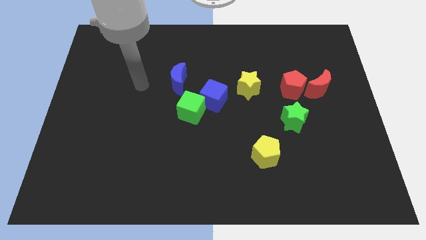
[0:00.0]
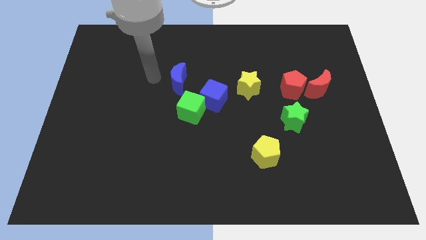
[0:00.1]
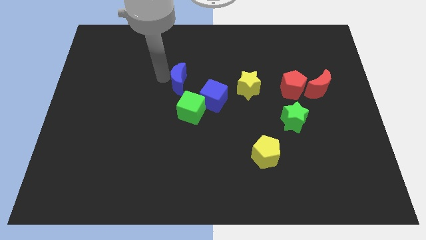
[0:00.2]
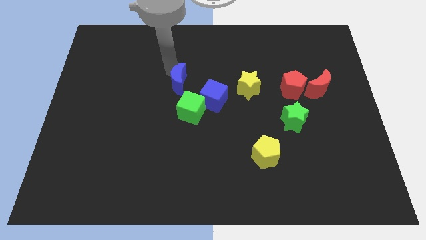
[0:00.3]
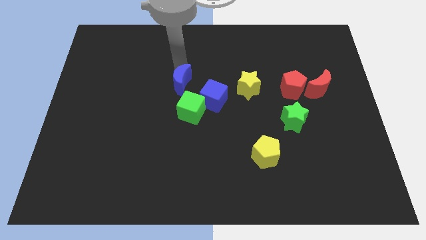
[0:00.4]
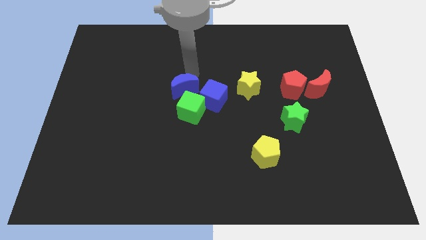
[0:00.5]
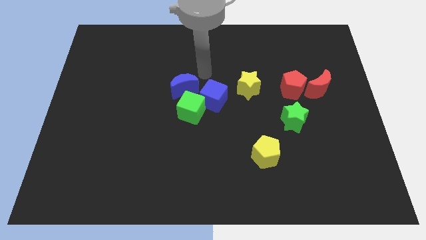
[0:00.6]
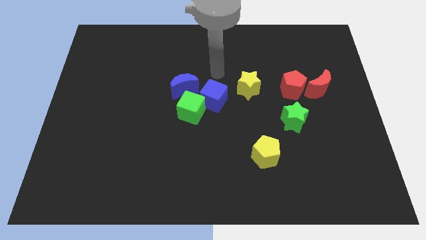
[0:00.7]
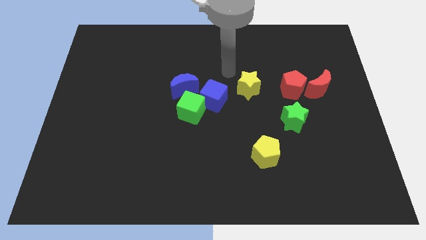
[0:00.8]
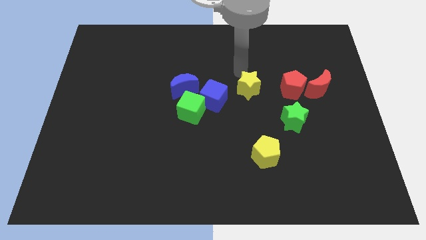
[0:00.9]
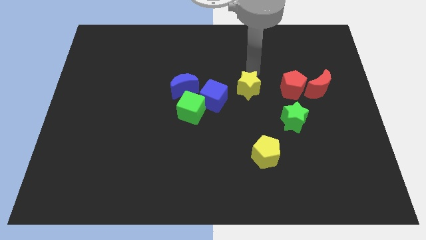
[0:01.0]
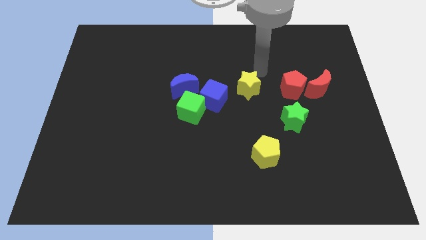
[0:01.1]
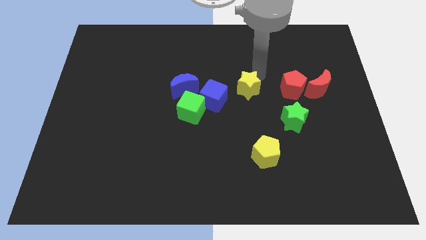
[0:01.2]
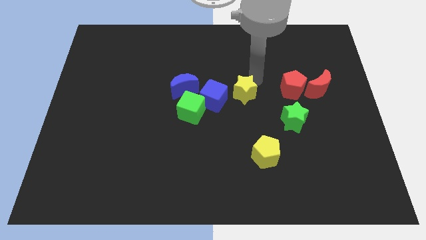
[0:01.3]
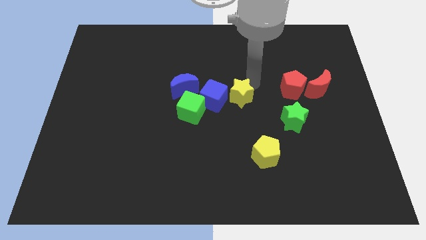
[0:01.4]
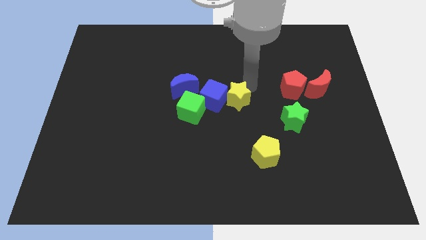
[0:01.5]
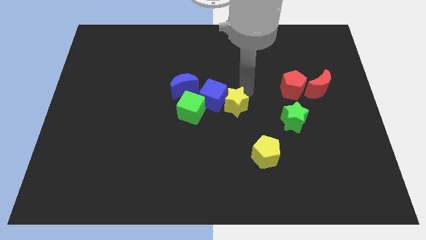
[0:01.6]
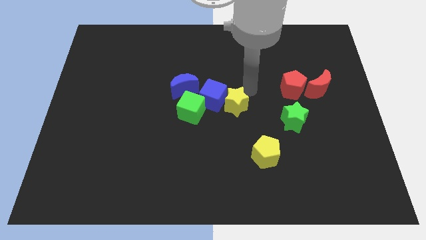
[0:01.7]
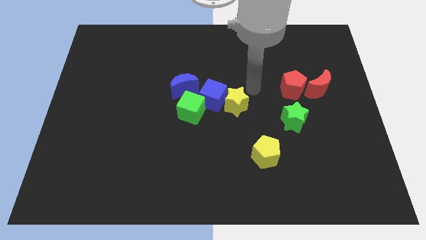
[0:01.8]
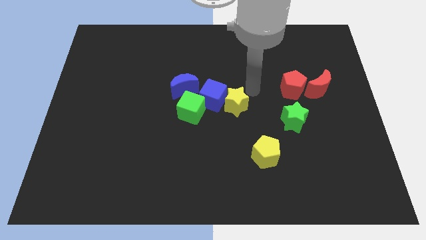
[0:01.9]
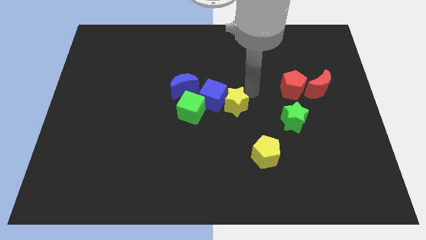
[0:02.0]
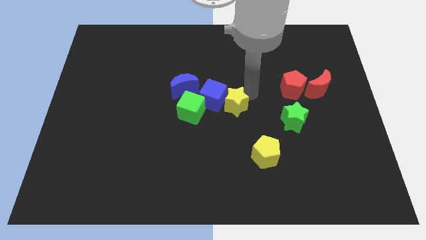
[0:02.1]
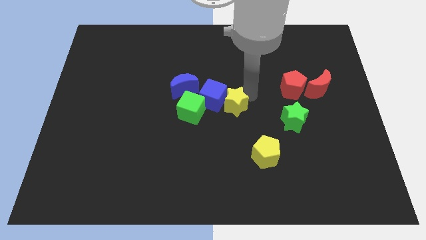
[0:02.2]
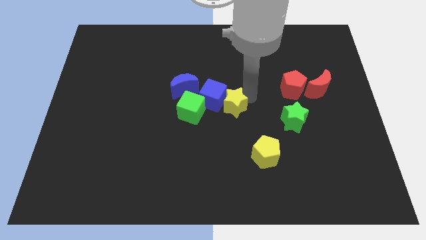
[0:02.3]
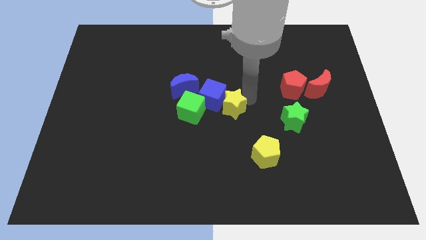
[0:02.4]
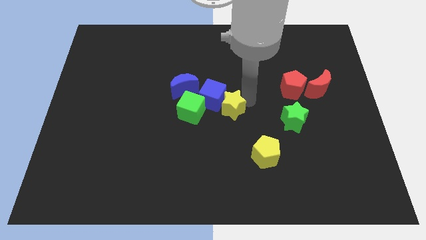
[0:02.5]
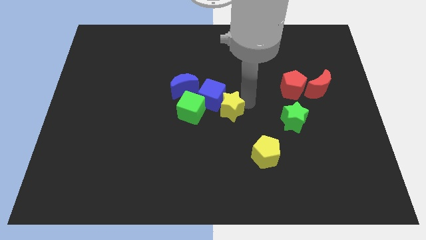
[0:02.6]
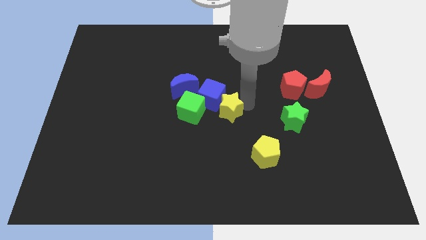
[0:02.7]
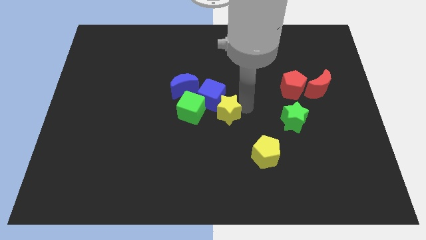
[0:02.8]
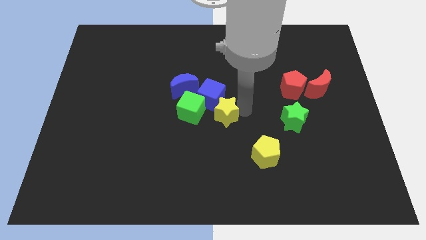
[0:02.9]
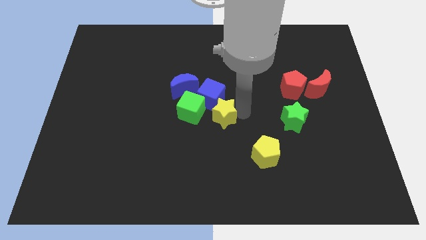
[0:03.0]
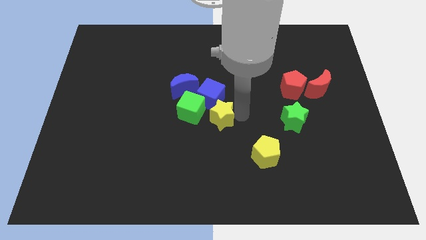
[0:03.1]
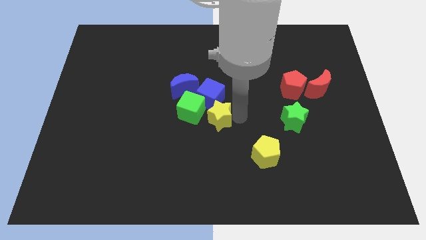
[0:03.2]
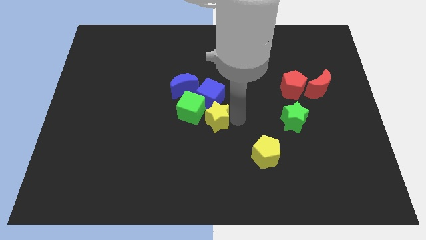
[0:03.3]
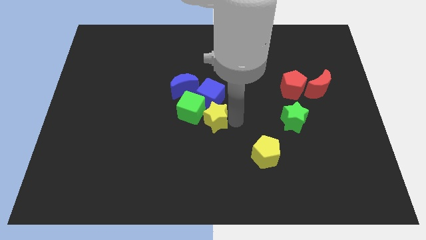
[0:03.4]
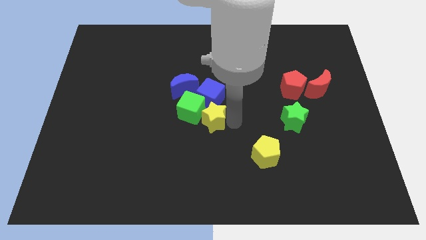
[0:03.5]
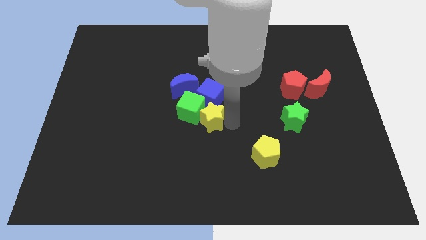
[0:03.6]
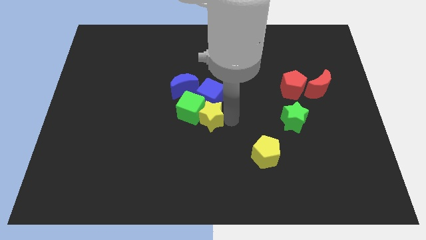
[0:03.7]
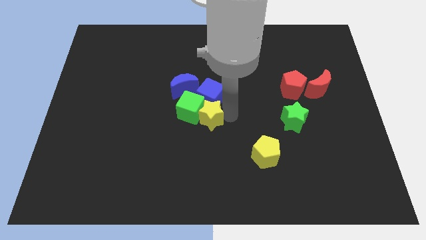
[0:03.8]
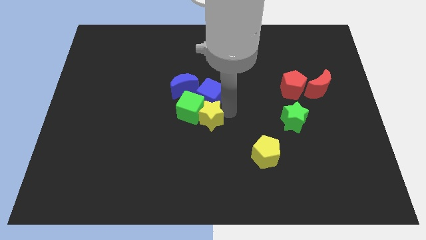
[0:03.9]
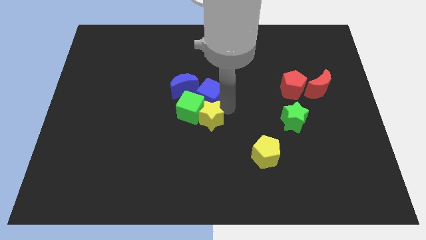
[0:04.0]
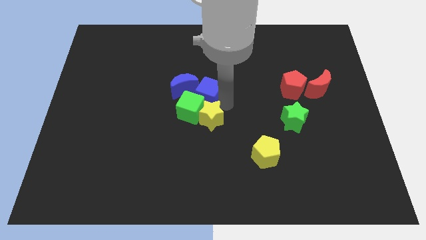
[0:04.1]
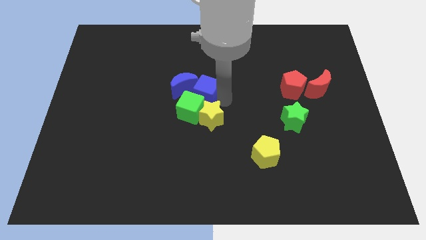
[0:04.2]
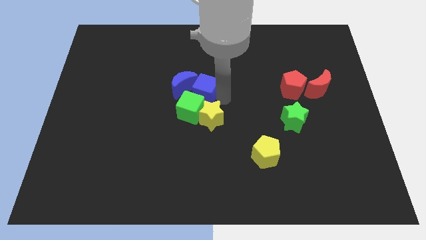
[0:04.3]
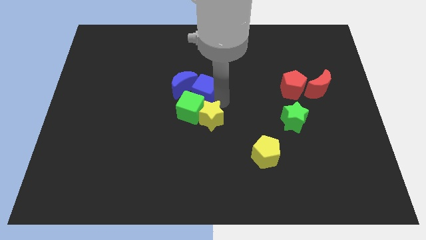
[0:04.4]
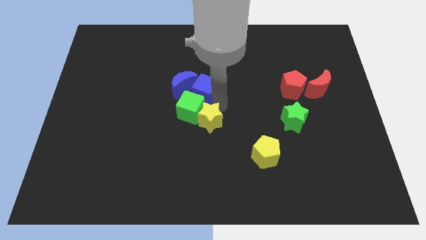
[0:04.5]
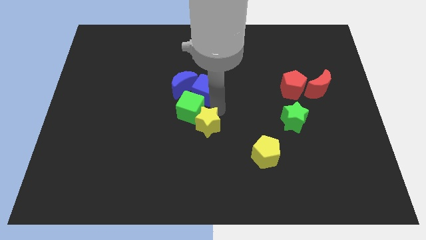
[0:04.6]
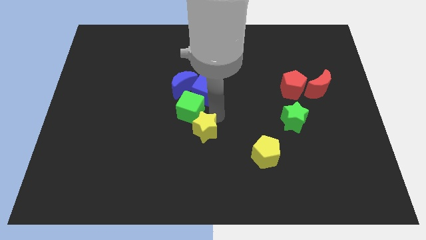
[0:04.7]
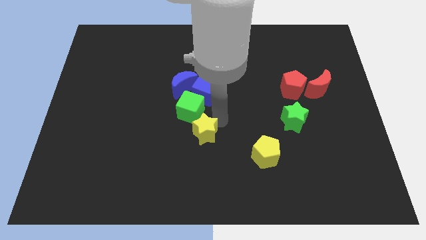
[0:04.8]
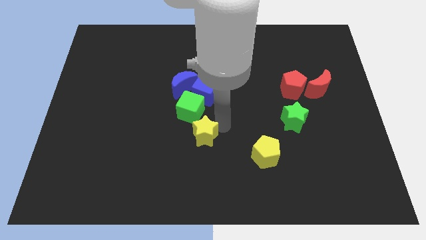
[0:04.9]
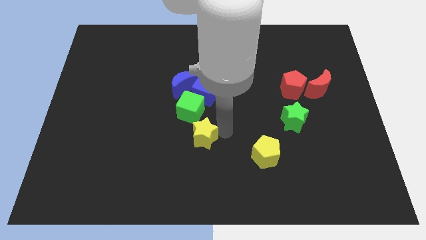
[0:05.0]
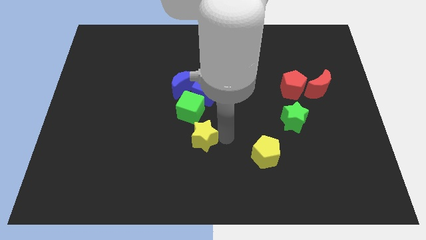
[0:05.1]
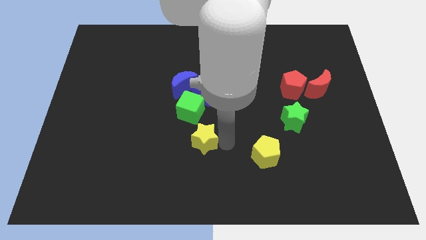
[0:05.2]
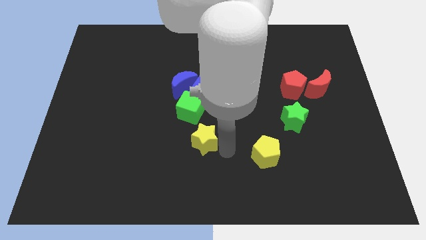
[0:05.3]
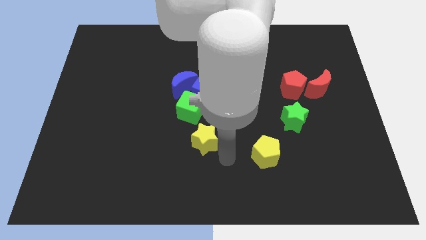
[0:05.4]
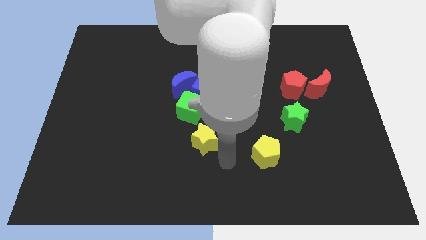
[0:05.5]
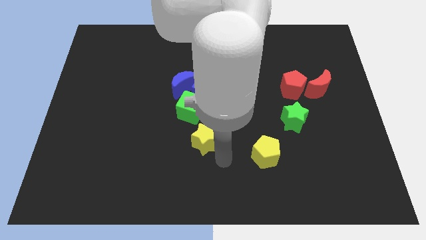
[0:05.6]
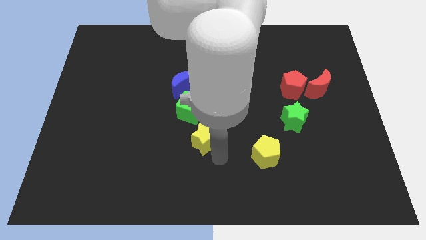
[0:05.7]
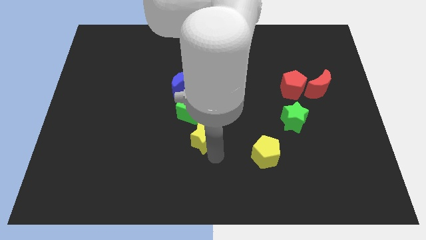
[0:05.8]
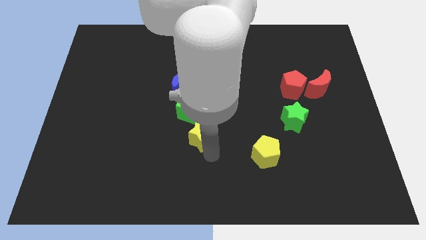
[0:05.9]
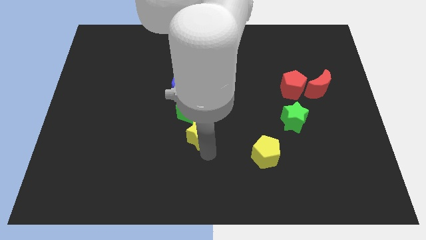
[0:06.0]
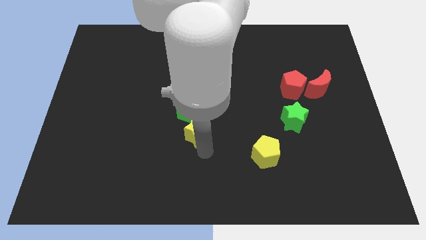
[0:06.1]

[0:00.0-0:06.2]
put the yellow star to the bottom side of the blue moon
